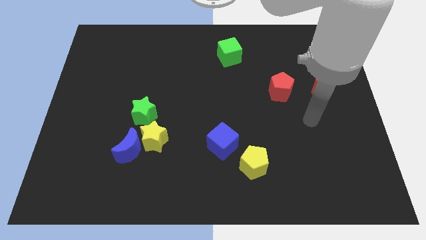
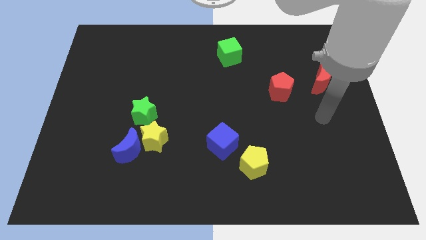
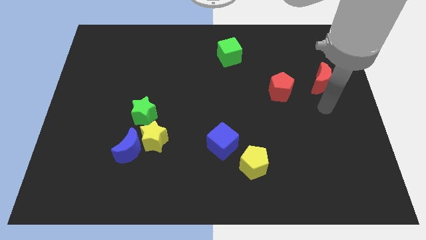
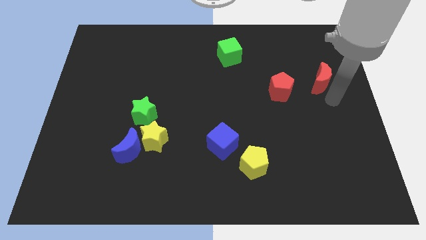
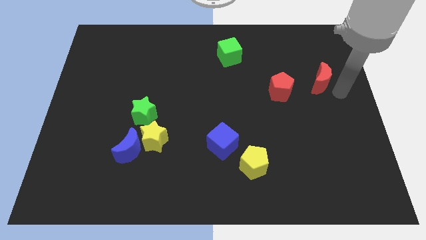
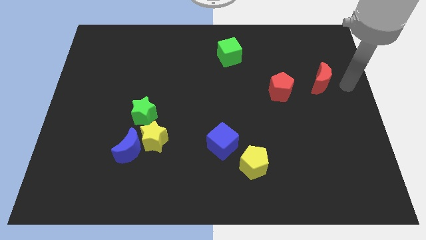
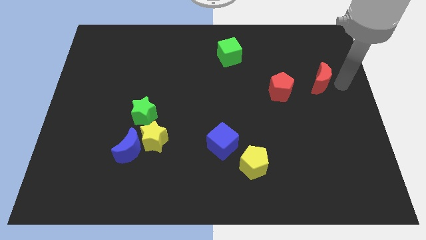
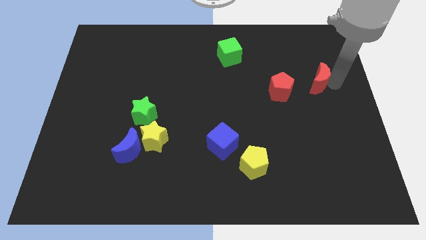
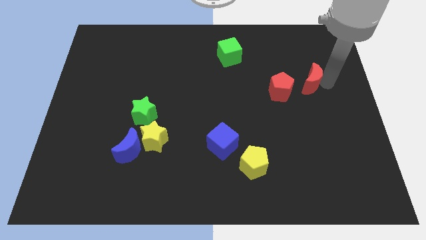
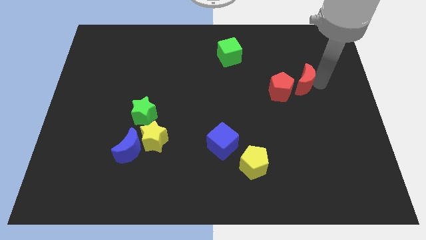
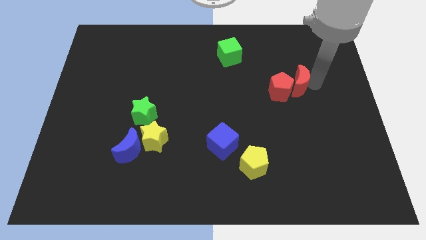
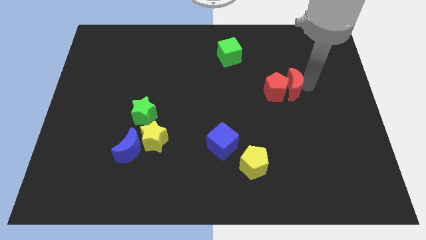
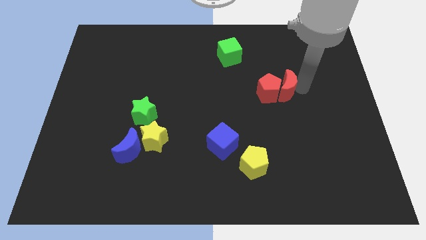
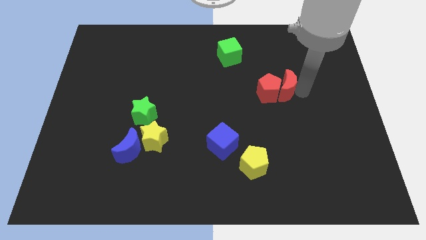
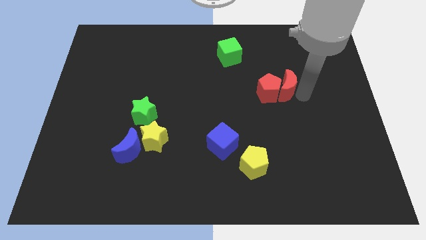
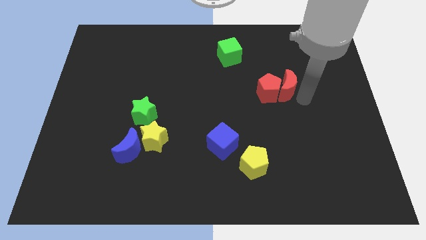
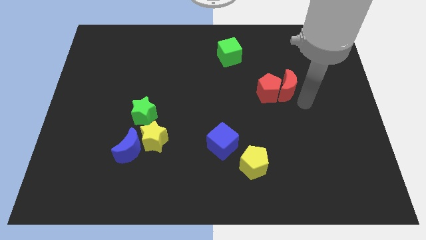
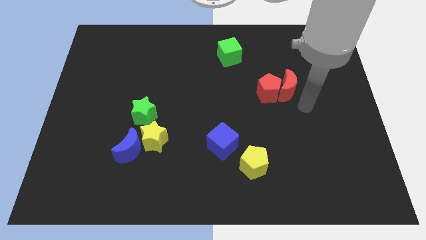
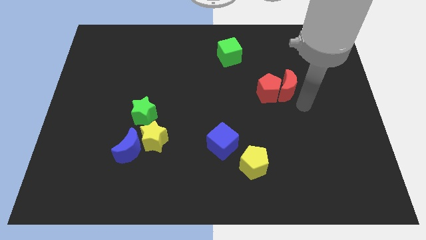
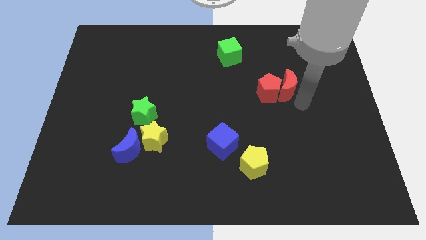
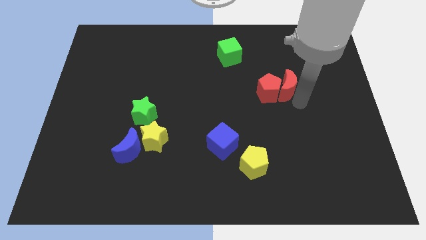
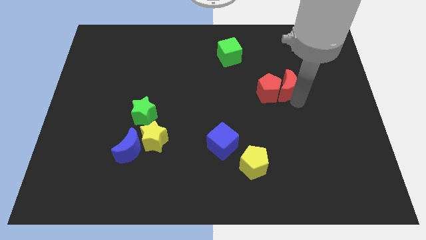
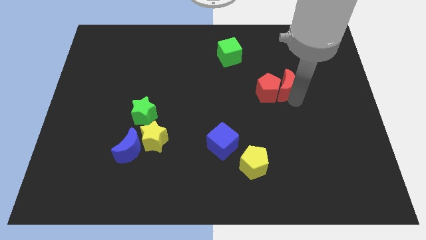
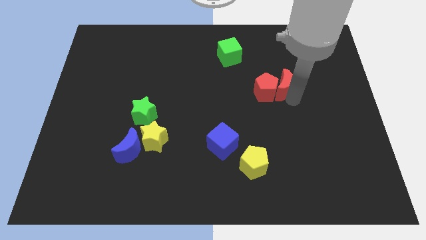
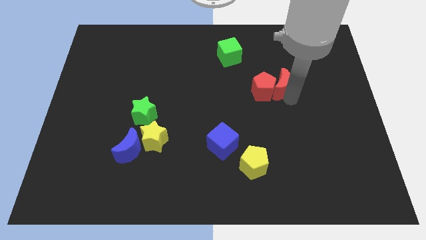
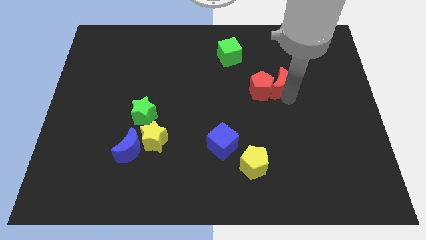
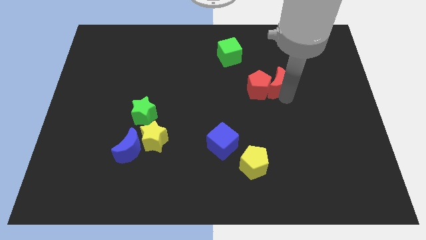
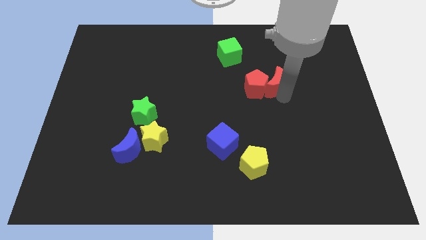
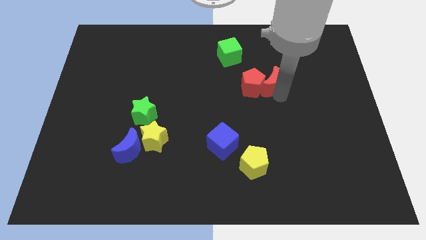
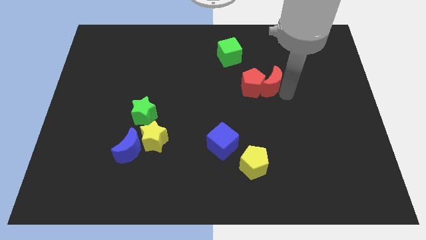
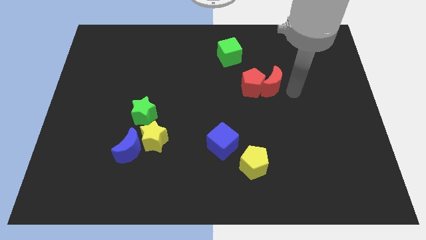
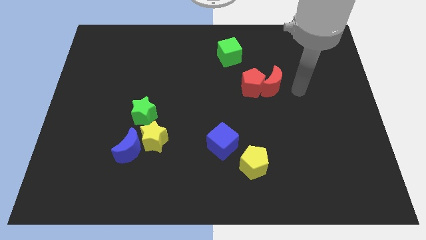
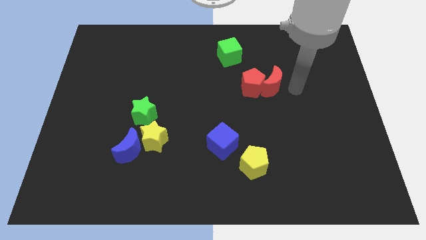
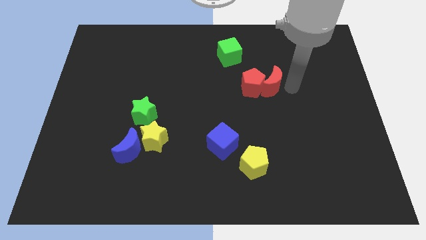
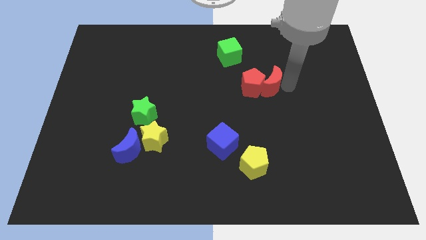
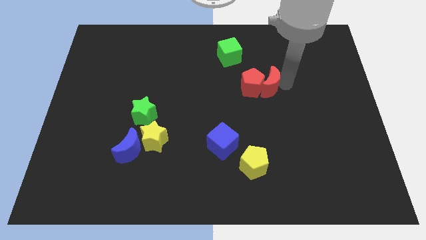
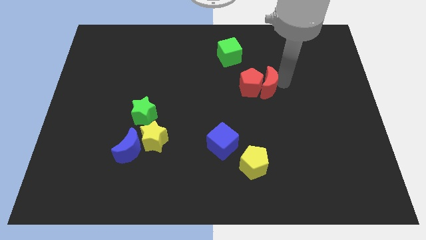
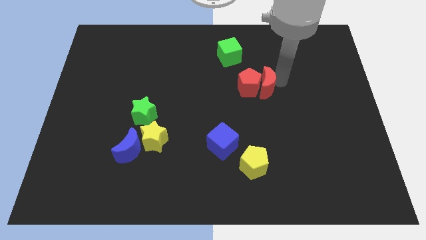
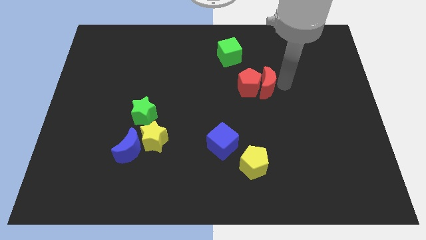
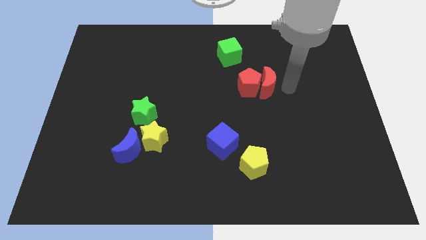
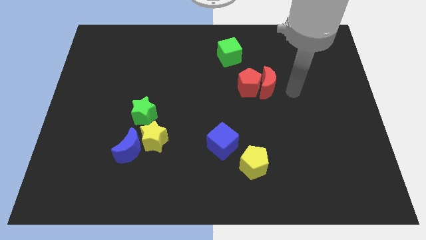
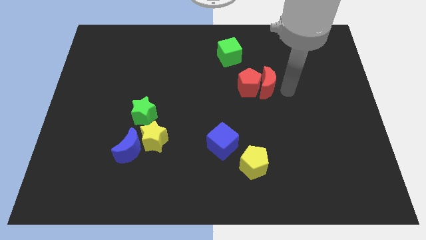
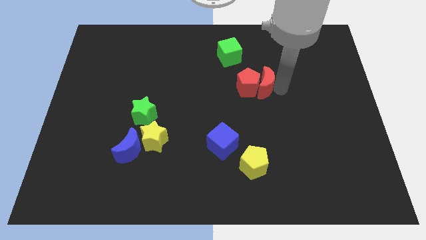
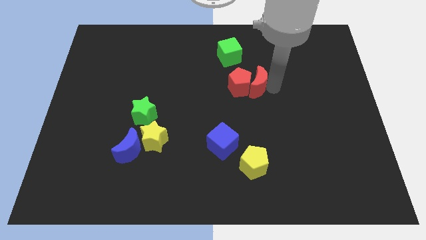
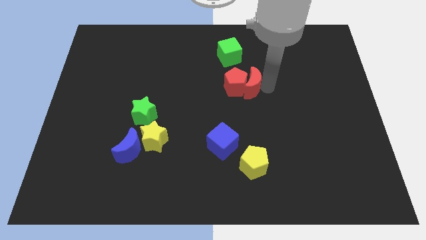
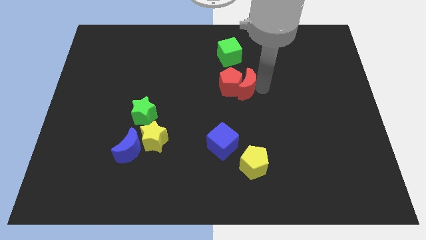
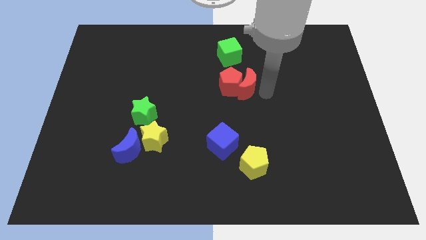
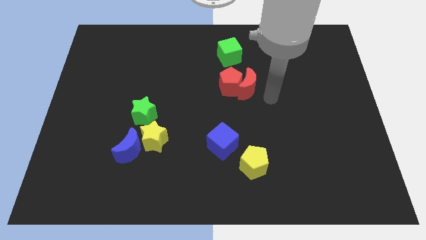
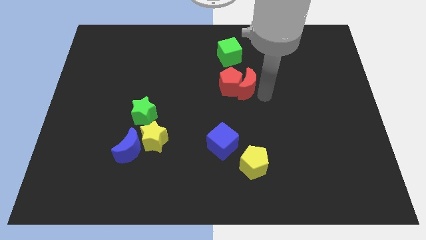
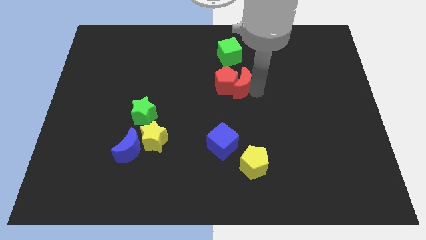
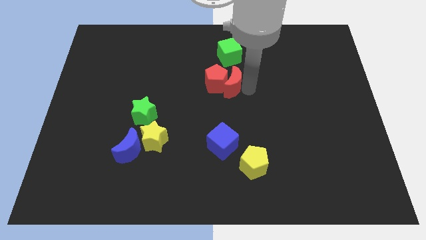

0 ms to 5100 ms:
move the red moon to the left

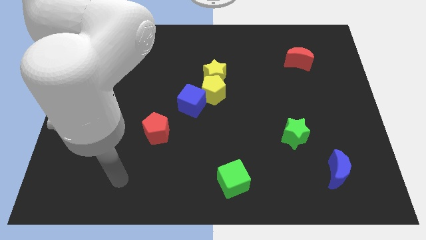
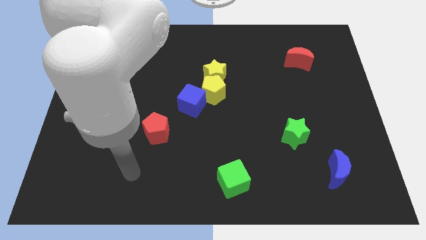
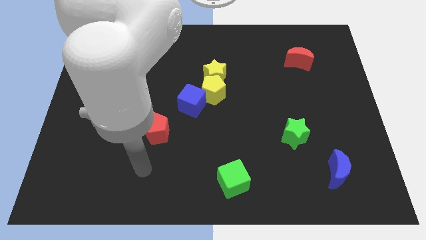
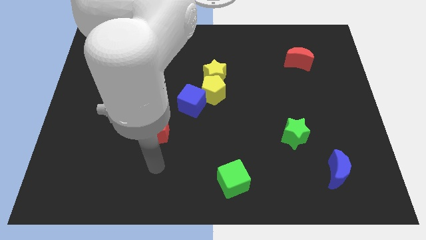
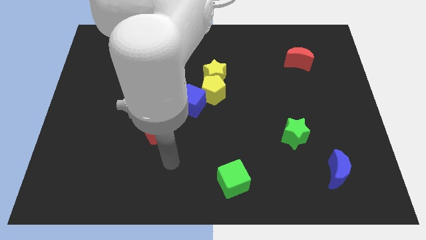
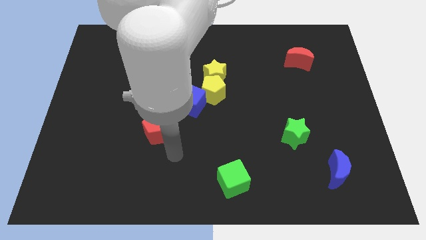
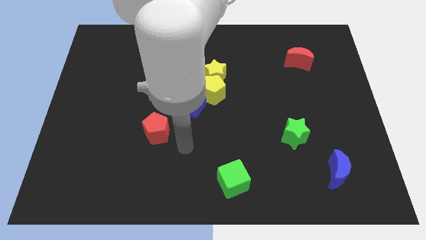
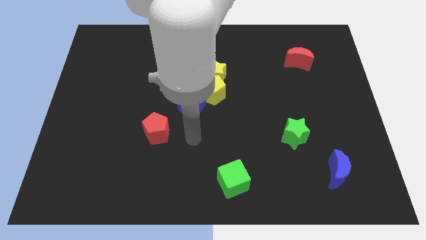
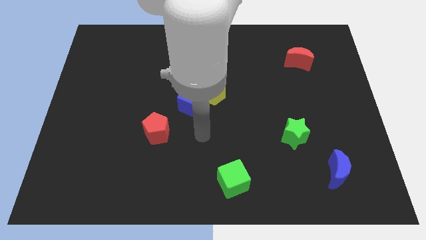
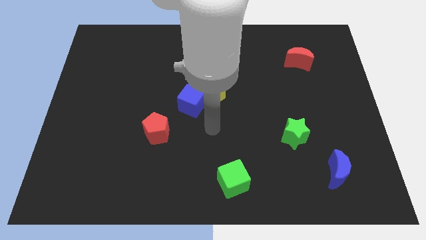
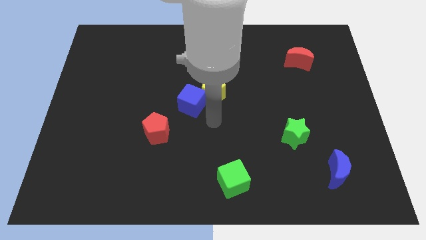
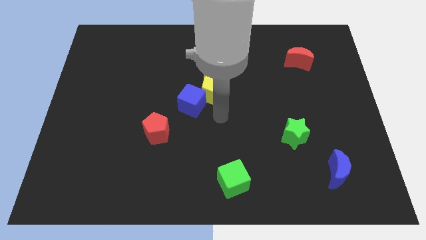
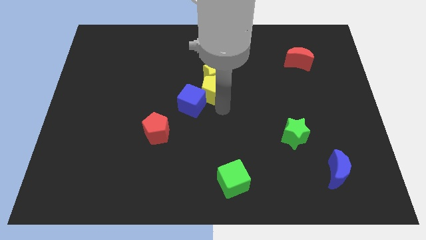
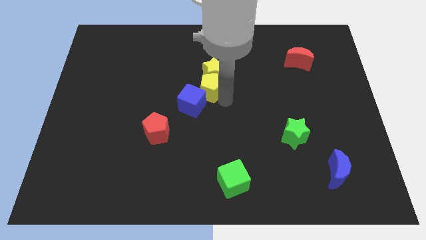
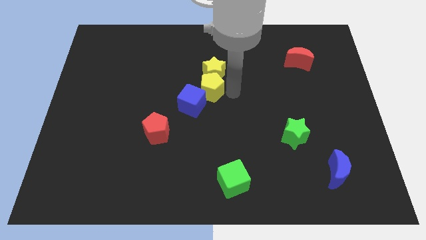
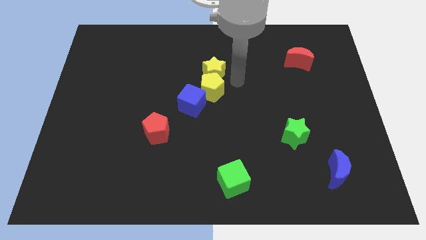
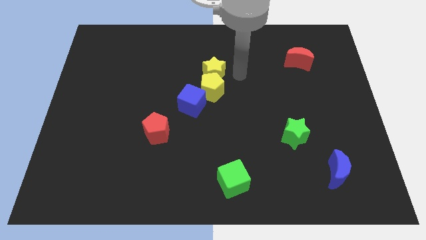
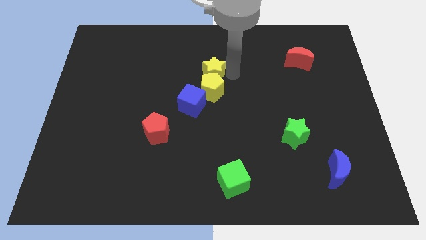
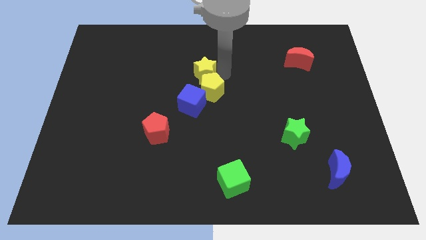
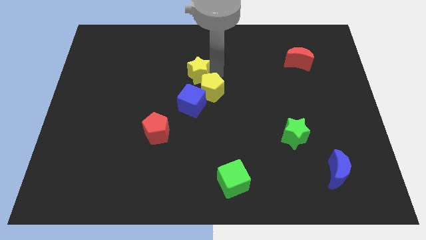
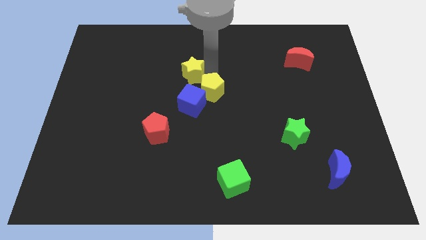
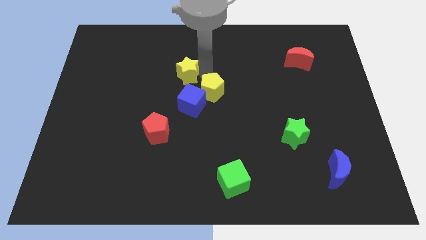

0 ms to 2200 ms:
slide the yellow star left a little

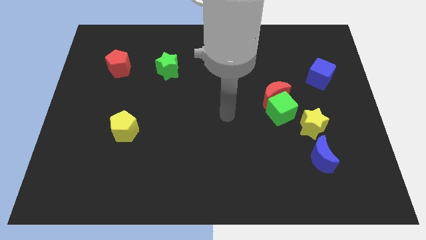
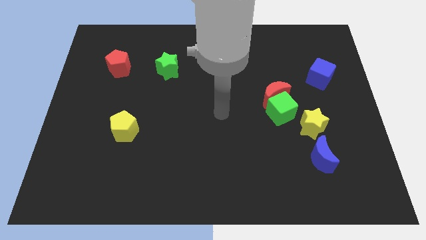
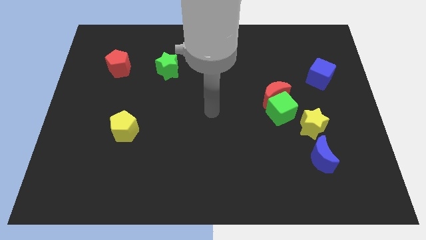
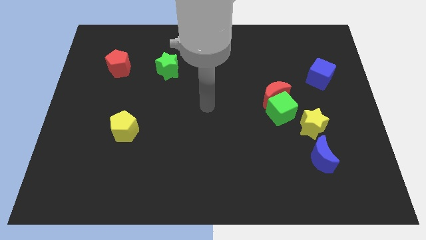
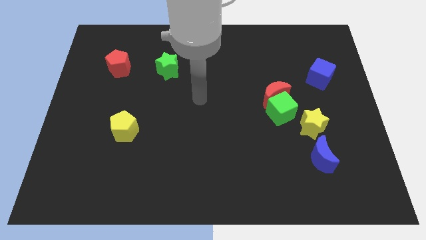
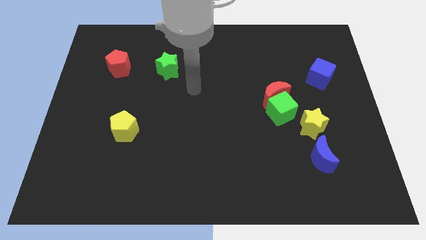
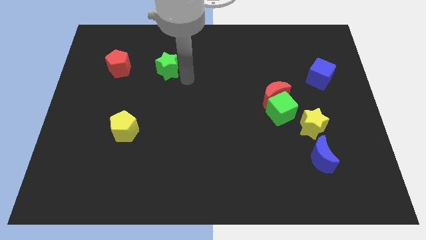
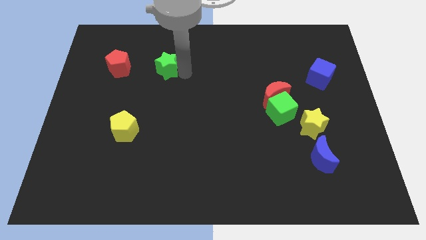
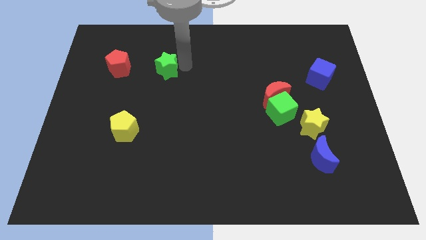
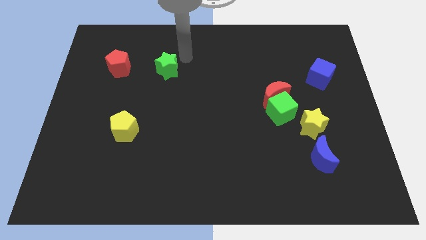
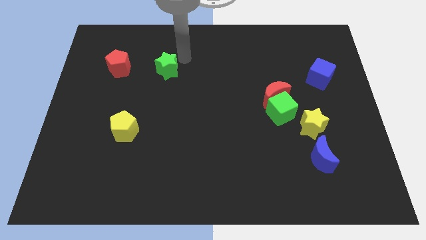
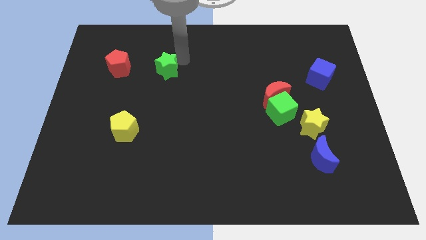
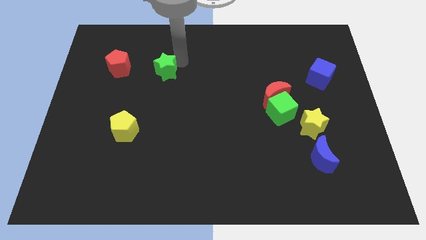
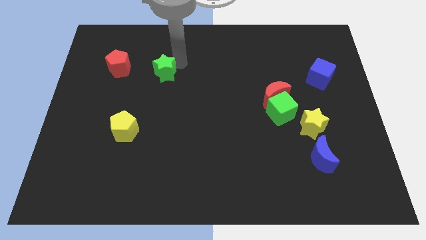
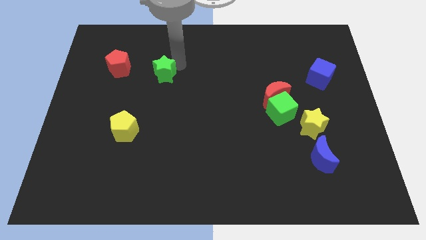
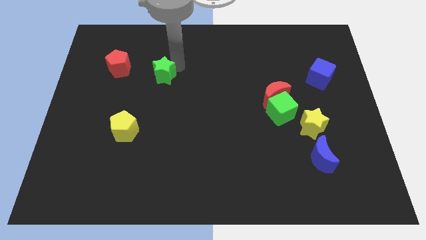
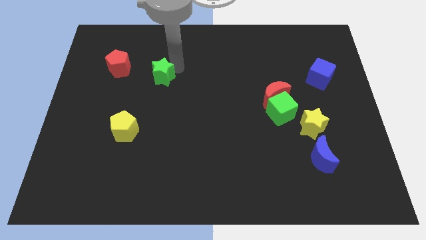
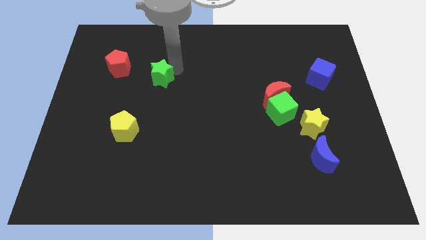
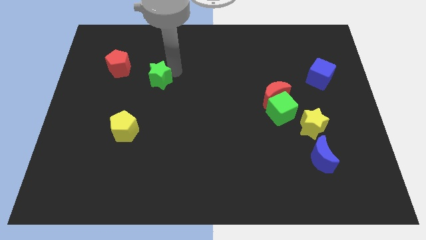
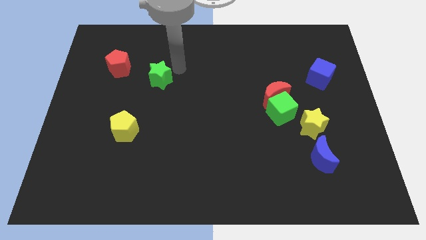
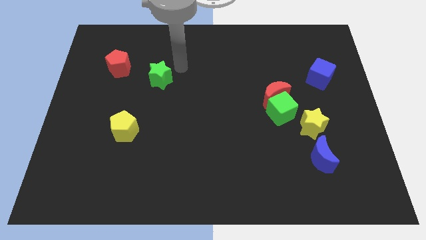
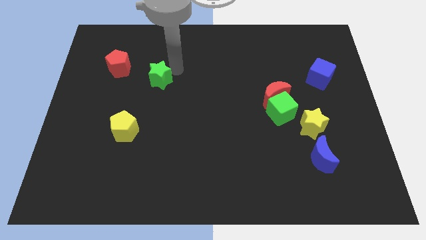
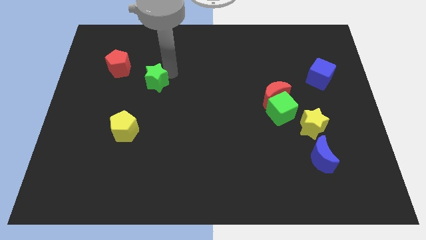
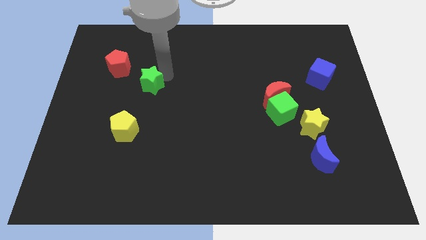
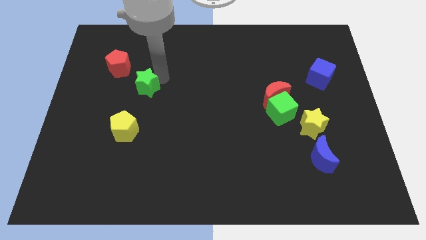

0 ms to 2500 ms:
slightly push the green star downwards and to the left
